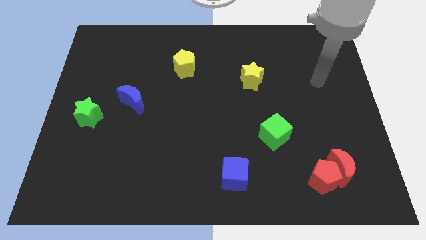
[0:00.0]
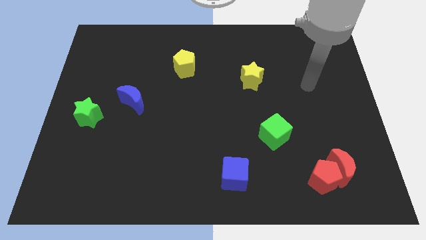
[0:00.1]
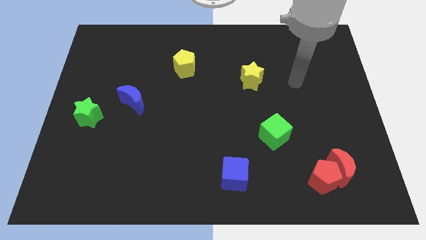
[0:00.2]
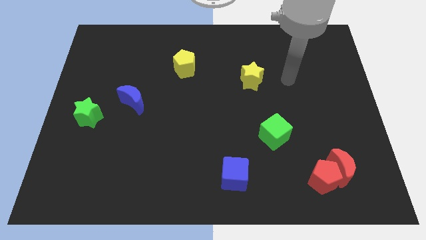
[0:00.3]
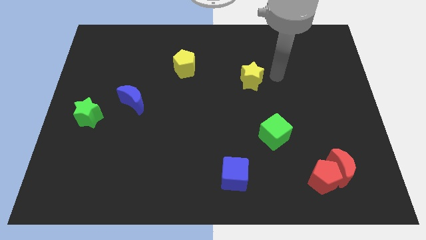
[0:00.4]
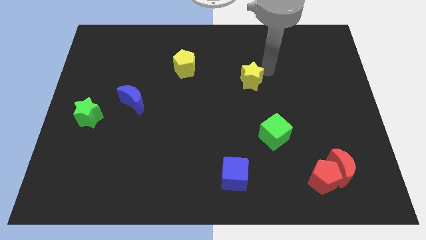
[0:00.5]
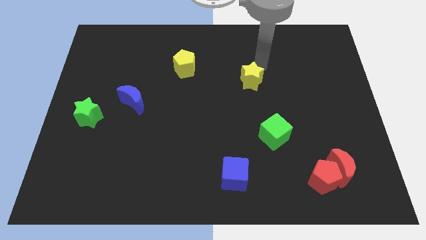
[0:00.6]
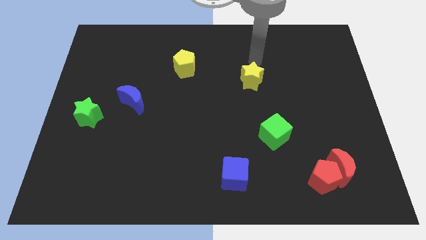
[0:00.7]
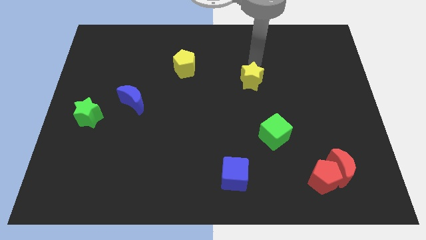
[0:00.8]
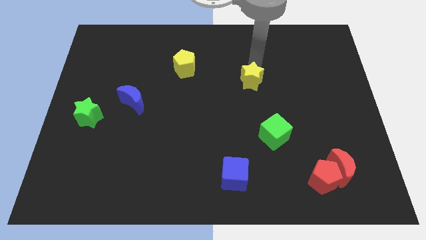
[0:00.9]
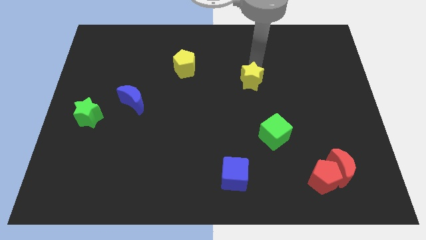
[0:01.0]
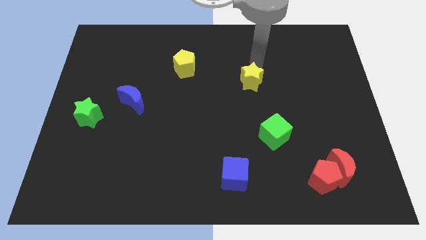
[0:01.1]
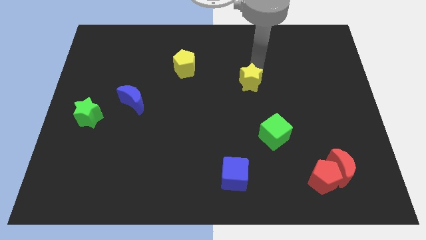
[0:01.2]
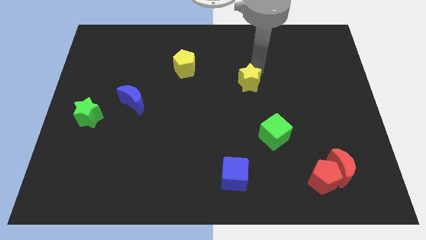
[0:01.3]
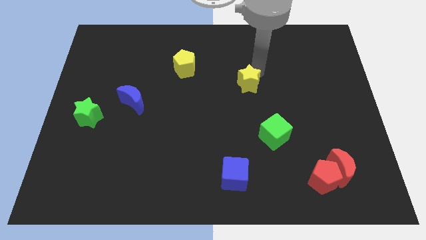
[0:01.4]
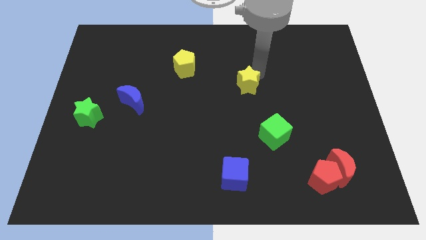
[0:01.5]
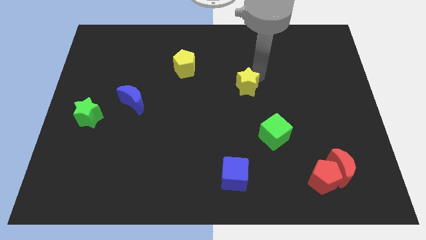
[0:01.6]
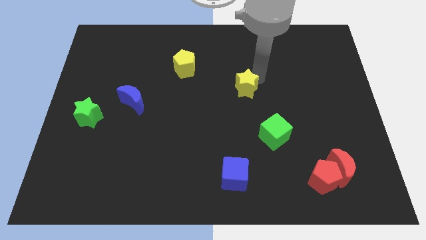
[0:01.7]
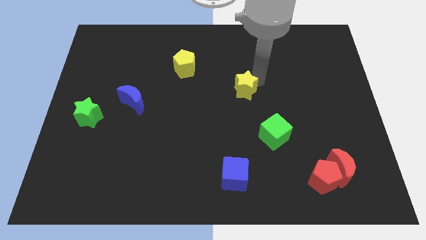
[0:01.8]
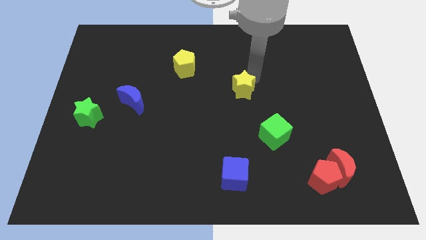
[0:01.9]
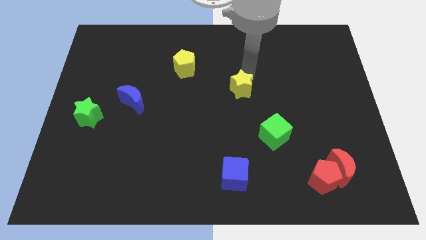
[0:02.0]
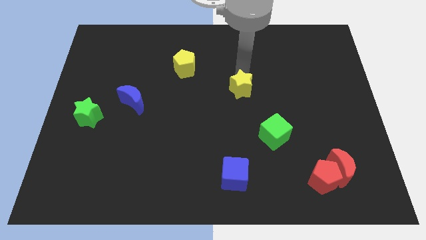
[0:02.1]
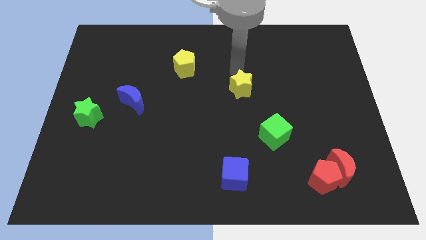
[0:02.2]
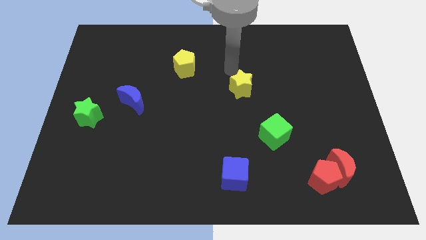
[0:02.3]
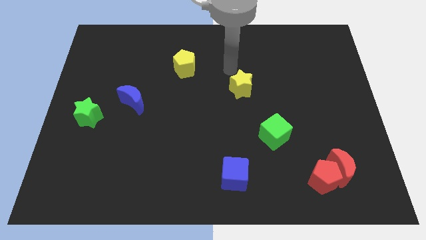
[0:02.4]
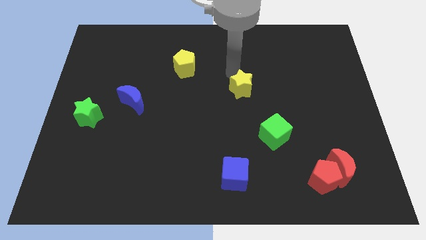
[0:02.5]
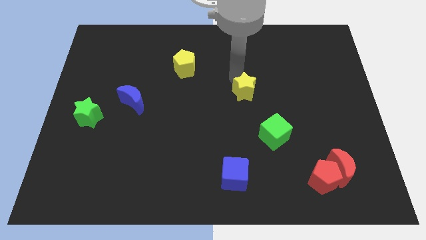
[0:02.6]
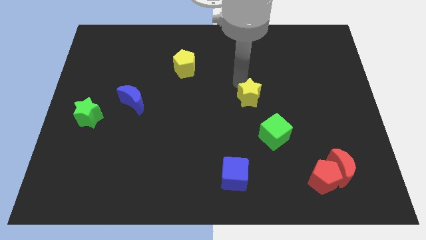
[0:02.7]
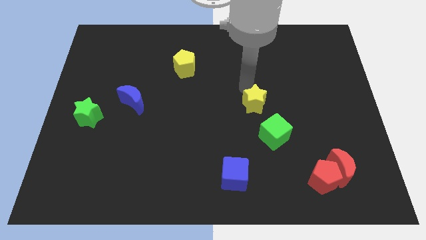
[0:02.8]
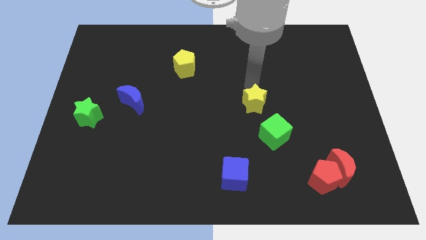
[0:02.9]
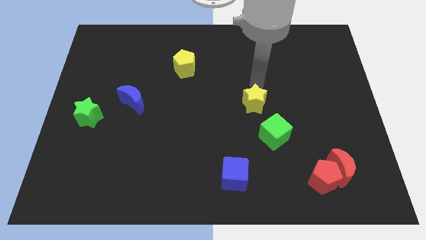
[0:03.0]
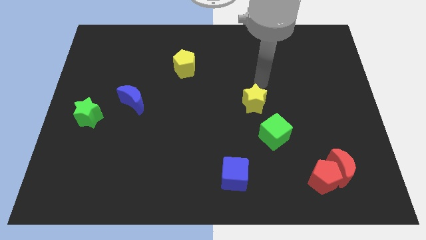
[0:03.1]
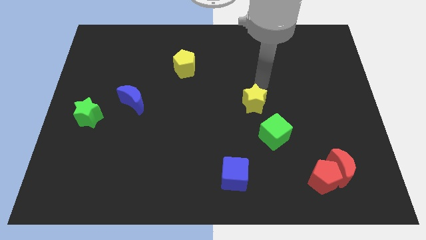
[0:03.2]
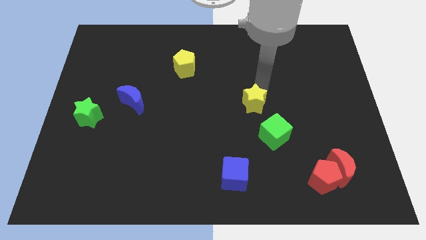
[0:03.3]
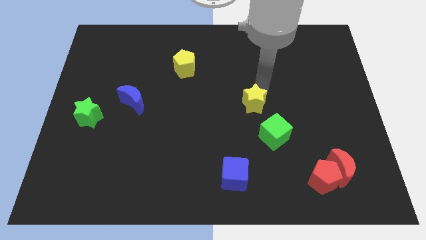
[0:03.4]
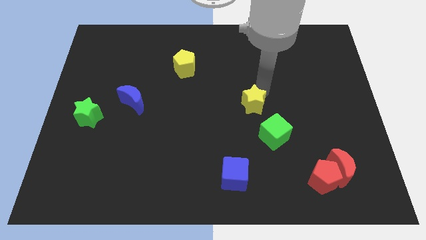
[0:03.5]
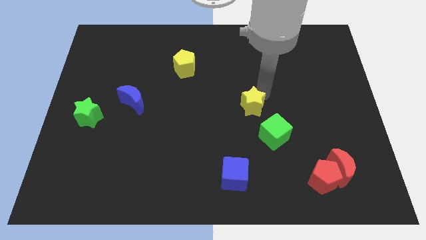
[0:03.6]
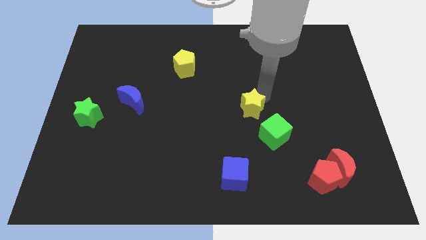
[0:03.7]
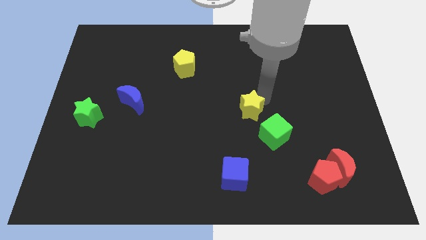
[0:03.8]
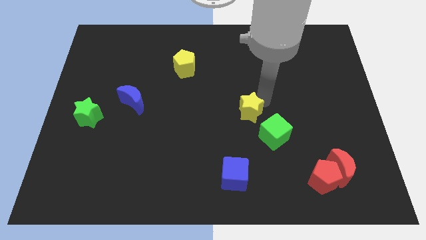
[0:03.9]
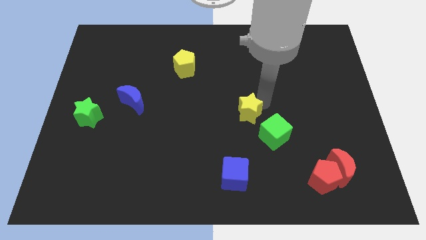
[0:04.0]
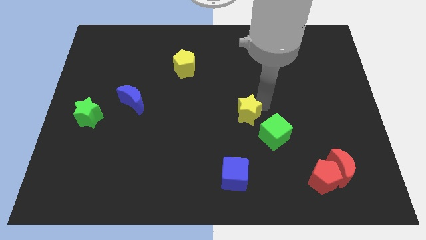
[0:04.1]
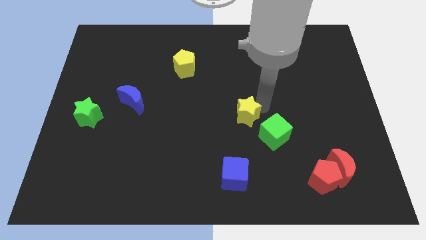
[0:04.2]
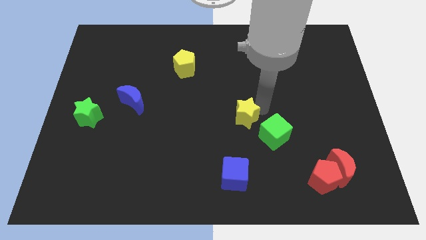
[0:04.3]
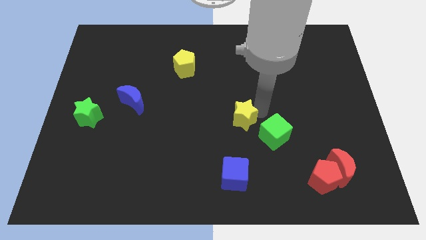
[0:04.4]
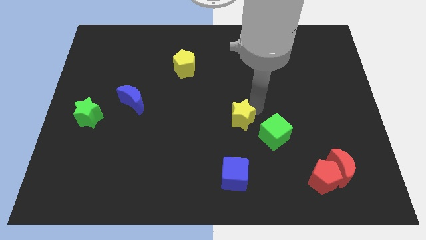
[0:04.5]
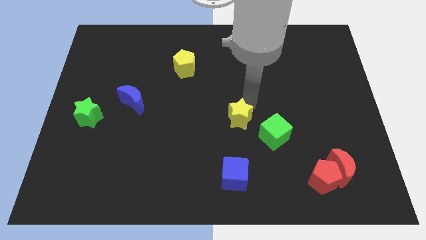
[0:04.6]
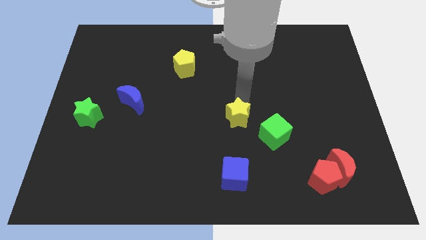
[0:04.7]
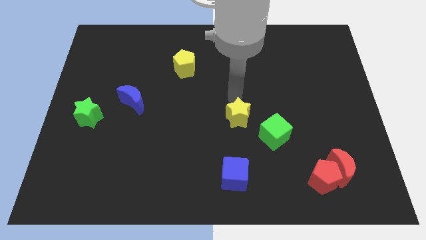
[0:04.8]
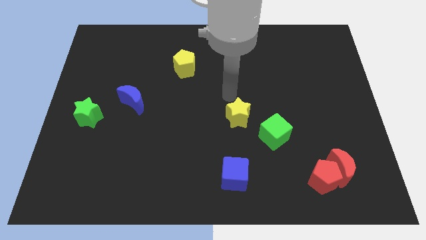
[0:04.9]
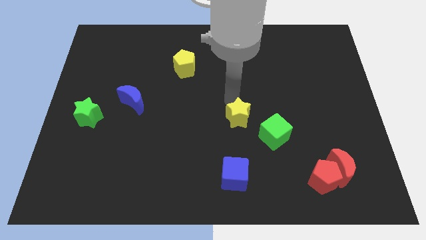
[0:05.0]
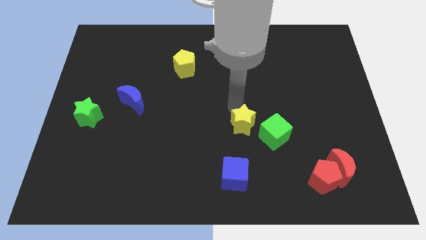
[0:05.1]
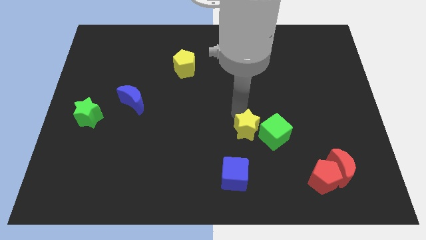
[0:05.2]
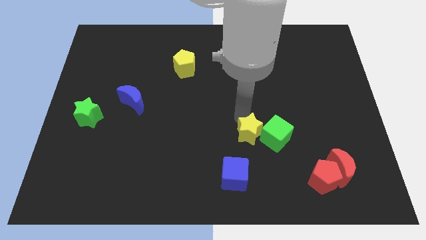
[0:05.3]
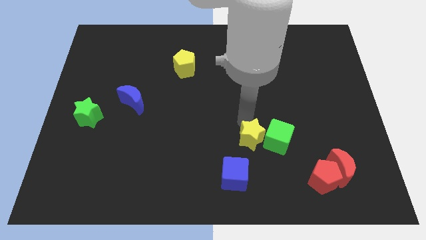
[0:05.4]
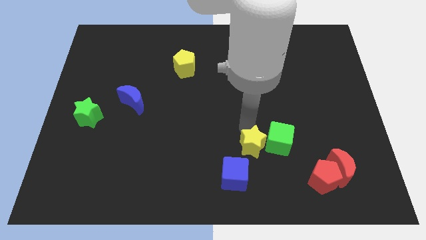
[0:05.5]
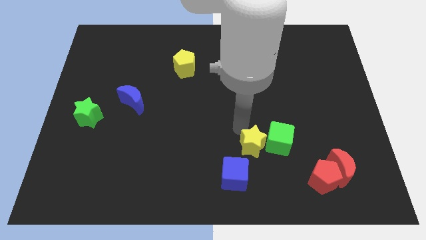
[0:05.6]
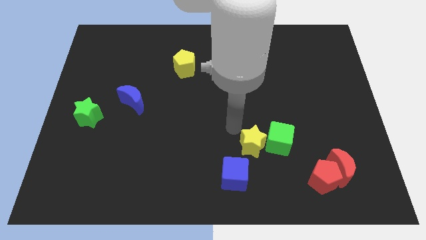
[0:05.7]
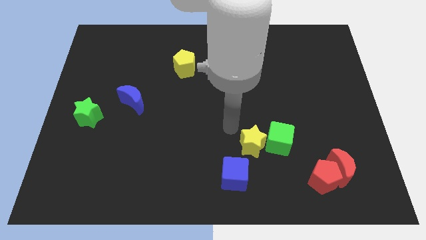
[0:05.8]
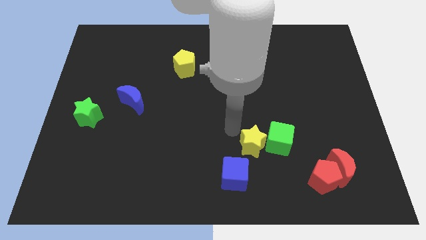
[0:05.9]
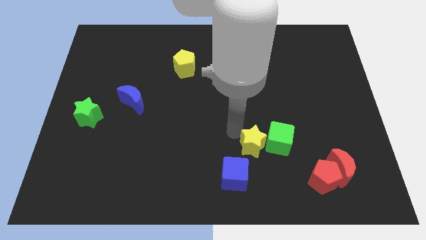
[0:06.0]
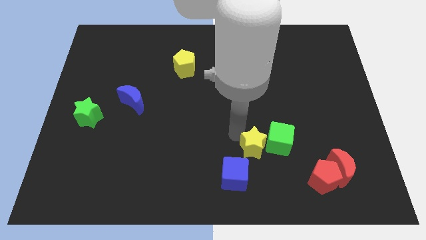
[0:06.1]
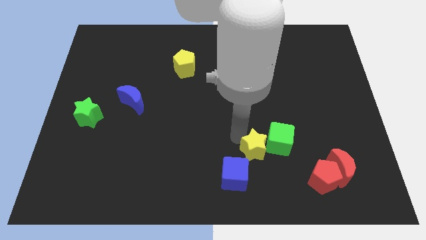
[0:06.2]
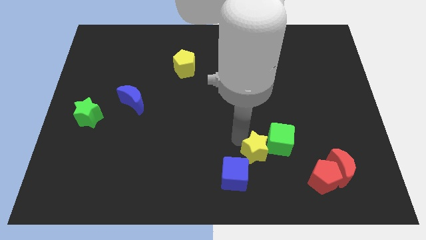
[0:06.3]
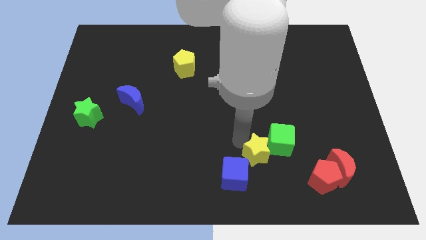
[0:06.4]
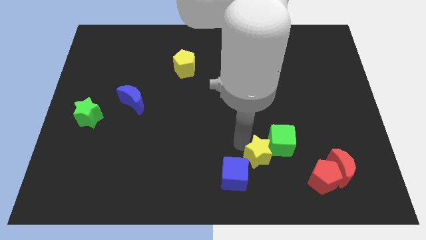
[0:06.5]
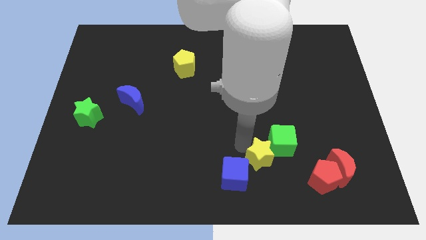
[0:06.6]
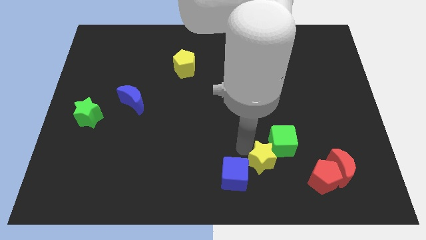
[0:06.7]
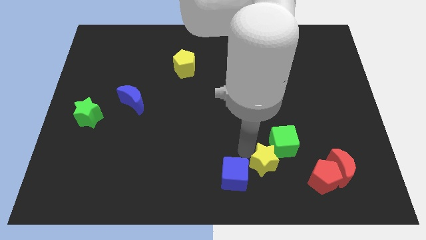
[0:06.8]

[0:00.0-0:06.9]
put the yellow star to the left of the red moon

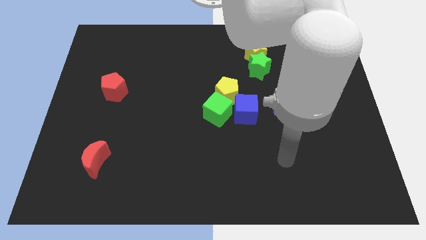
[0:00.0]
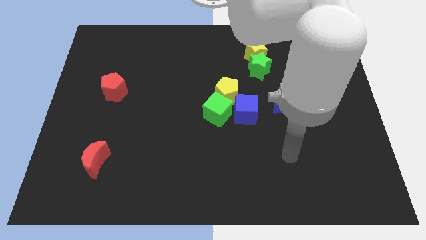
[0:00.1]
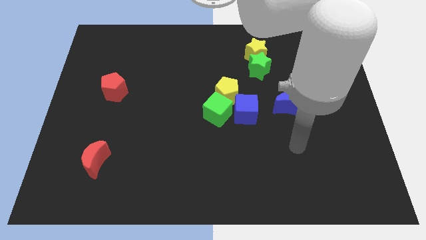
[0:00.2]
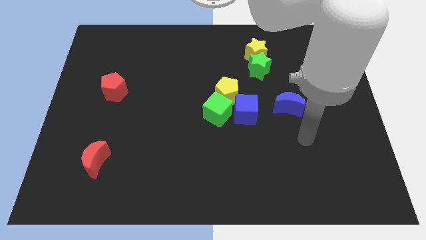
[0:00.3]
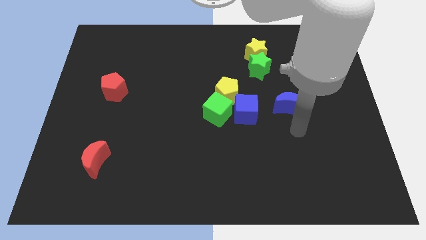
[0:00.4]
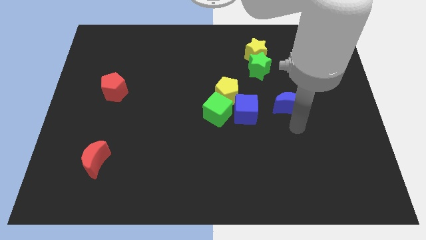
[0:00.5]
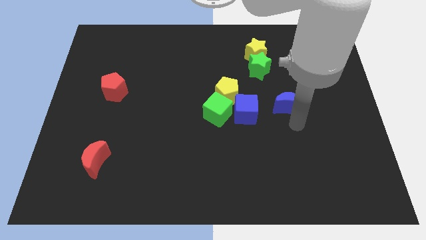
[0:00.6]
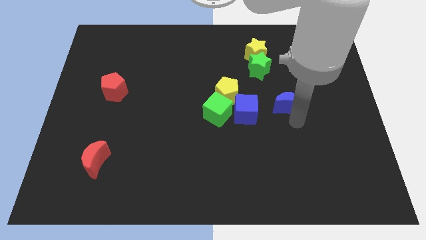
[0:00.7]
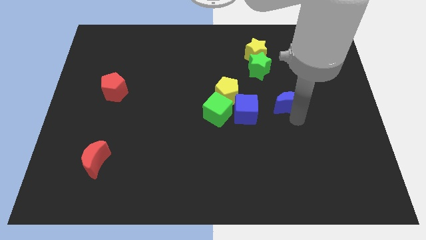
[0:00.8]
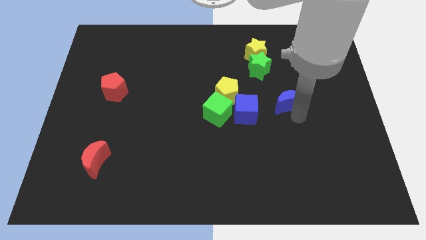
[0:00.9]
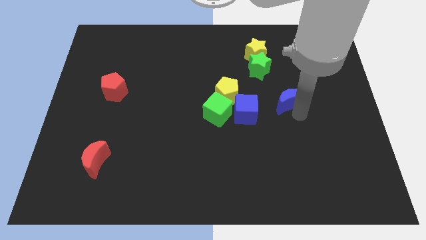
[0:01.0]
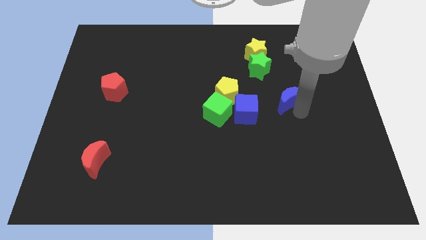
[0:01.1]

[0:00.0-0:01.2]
put the blue moon to the bottom right side of the green star
